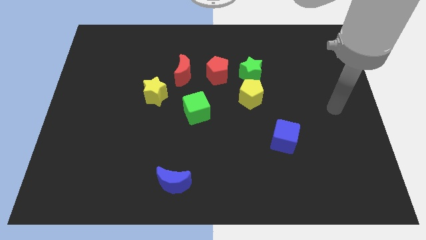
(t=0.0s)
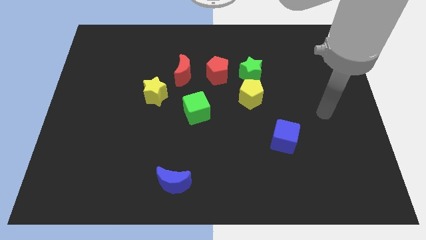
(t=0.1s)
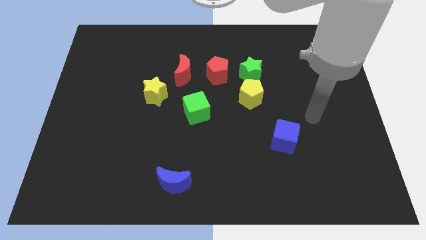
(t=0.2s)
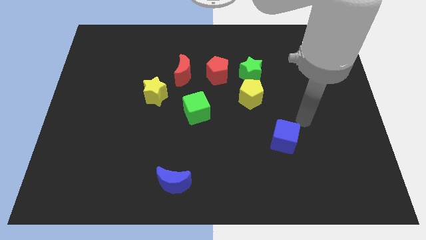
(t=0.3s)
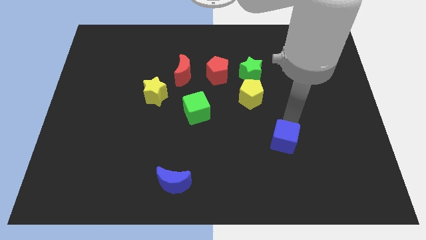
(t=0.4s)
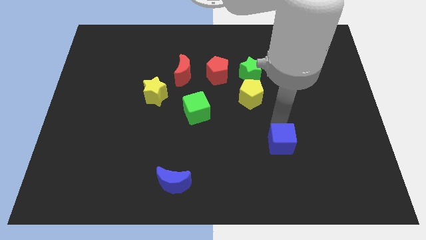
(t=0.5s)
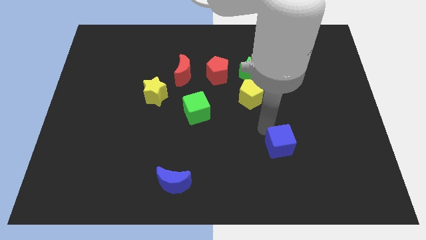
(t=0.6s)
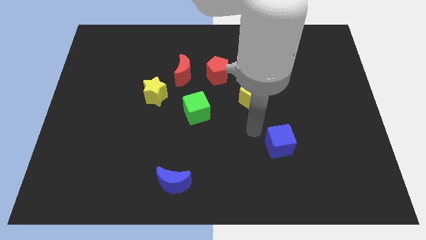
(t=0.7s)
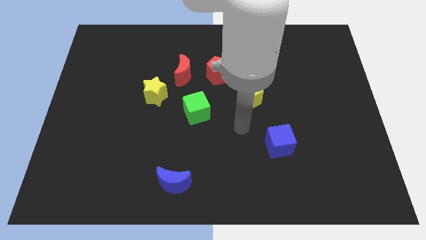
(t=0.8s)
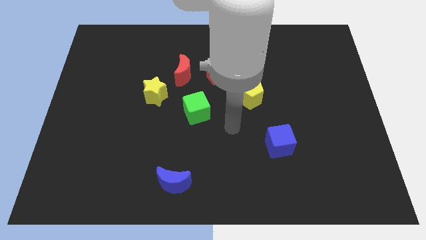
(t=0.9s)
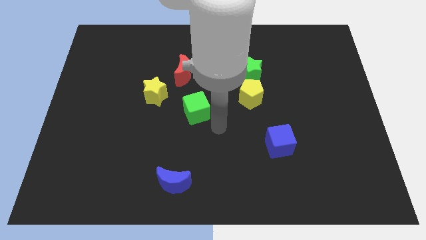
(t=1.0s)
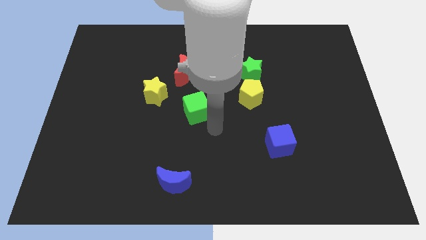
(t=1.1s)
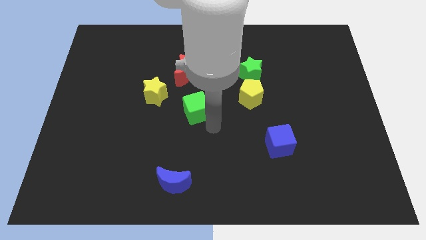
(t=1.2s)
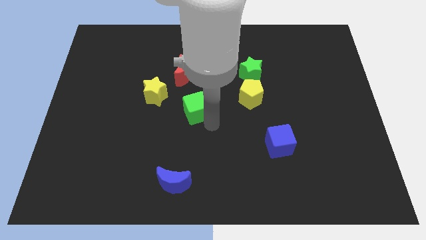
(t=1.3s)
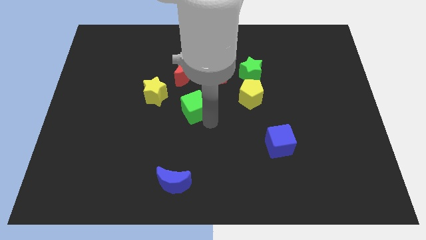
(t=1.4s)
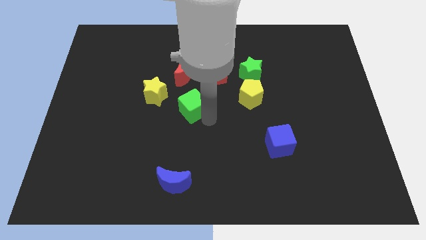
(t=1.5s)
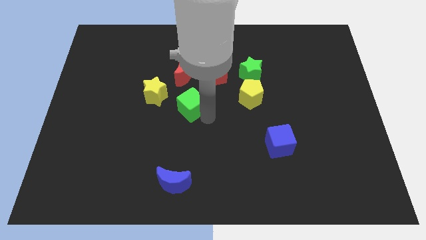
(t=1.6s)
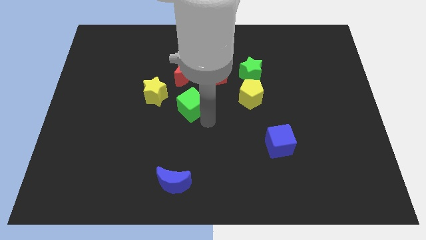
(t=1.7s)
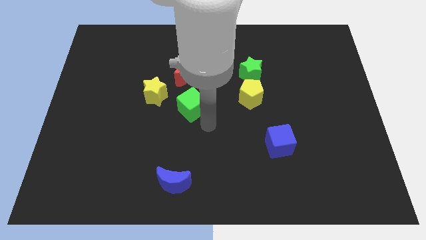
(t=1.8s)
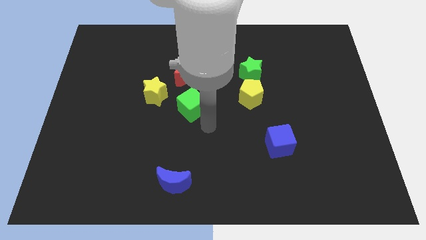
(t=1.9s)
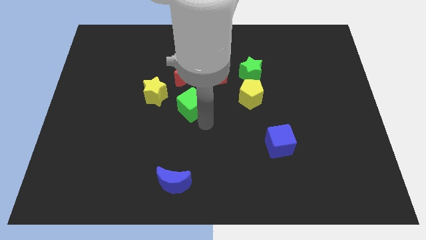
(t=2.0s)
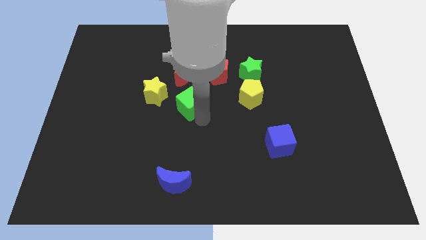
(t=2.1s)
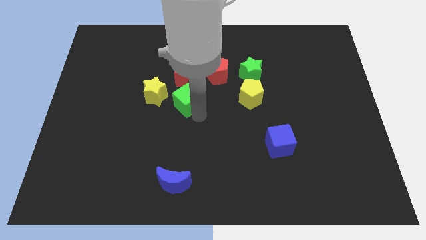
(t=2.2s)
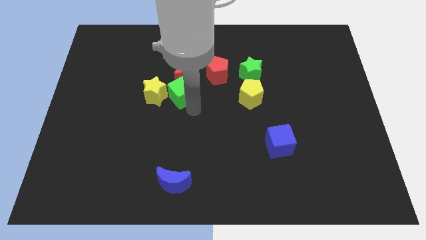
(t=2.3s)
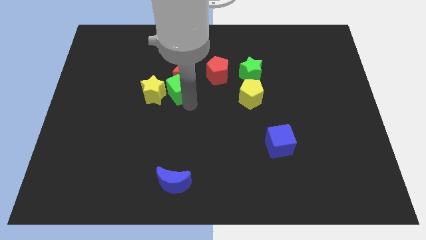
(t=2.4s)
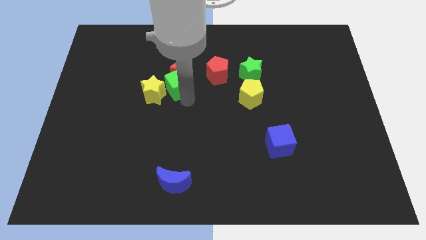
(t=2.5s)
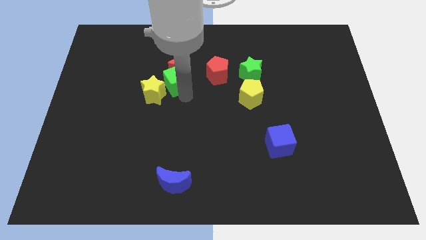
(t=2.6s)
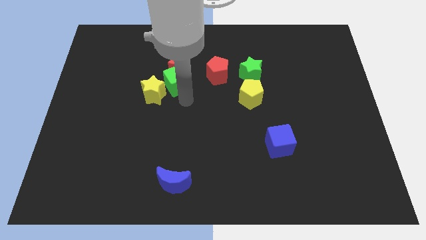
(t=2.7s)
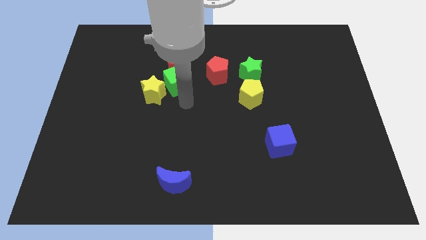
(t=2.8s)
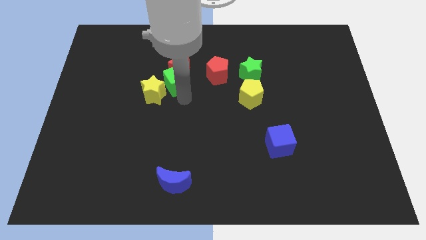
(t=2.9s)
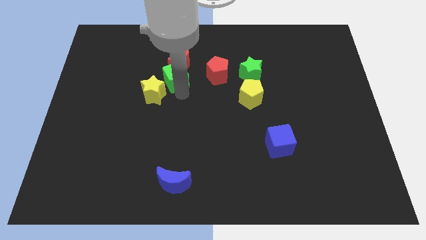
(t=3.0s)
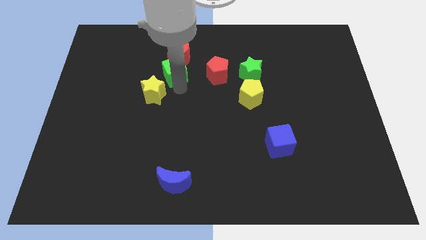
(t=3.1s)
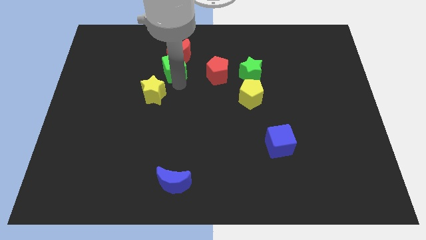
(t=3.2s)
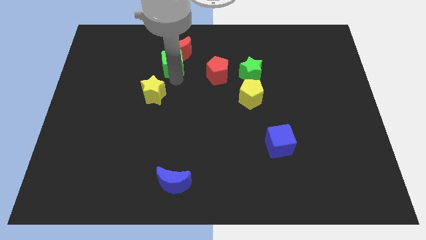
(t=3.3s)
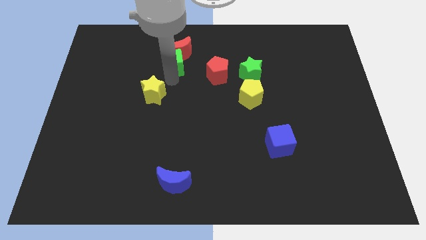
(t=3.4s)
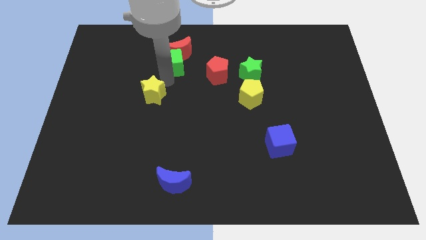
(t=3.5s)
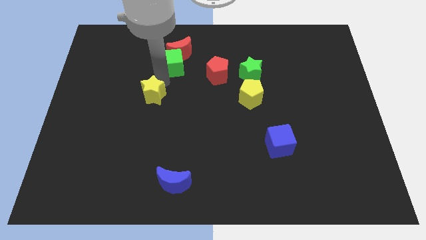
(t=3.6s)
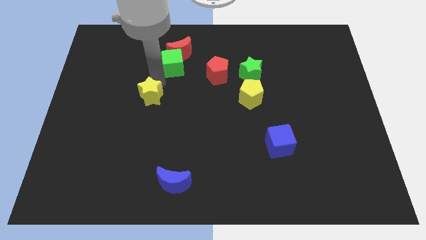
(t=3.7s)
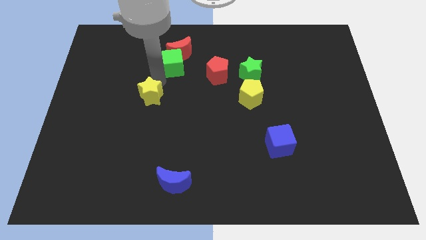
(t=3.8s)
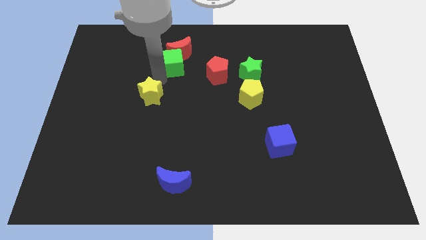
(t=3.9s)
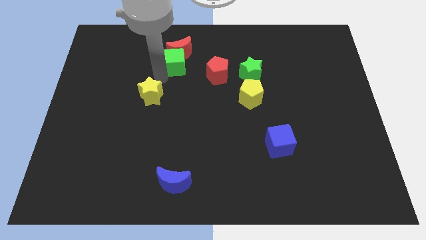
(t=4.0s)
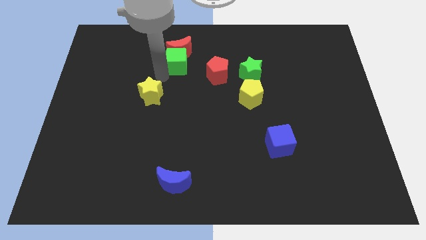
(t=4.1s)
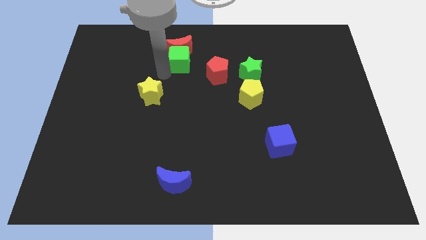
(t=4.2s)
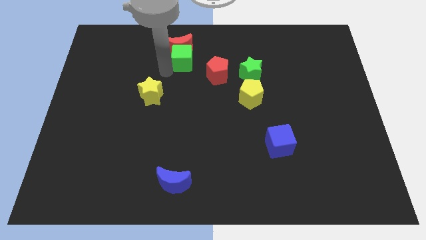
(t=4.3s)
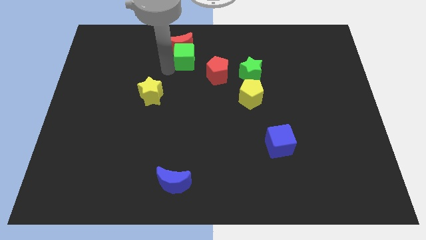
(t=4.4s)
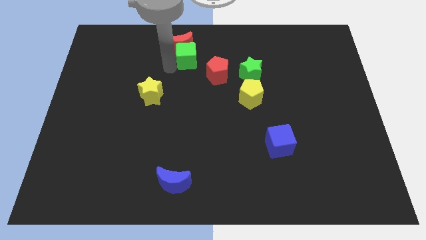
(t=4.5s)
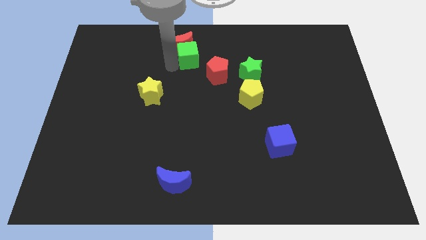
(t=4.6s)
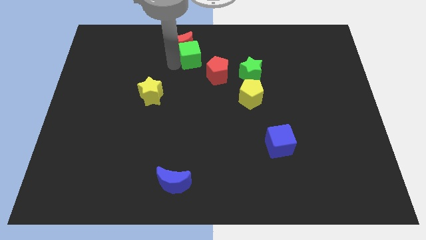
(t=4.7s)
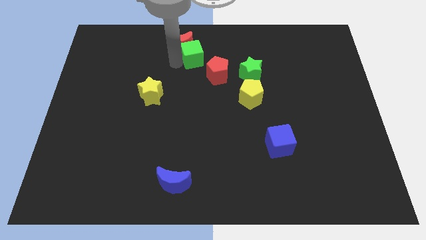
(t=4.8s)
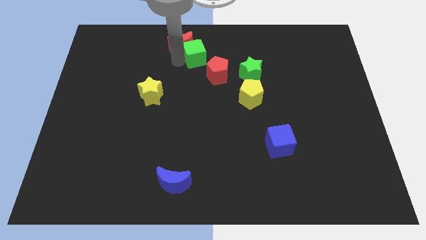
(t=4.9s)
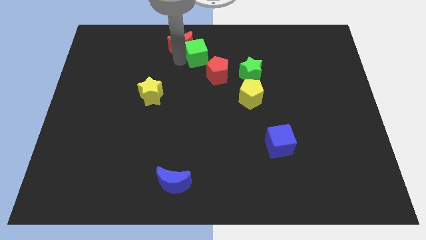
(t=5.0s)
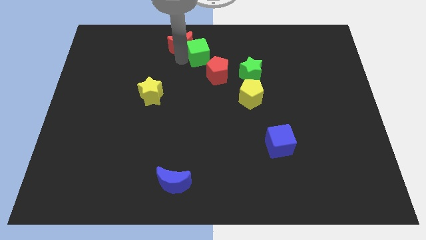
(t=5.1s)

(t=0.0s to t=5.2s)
move the green cube to the top

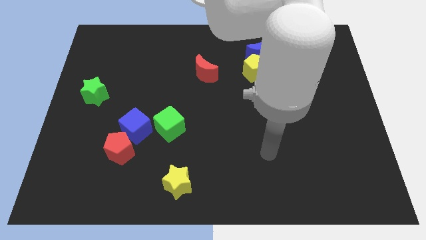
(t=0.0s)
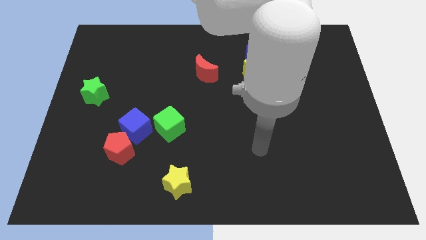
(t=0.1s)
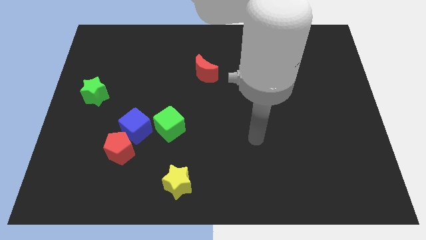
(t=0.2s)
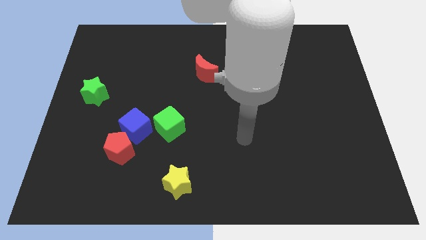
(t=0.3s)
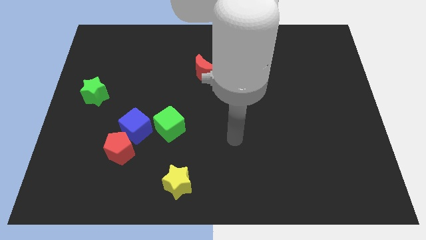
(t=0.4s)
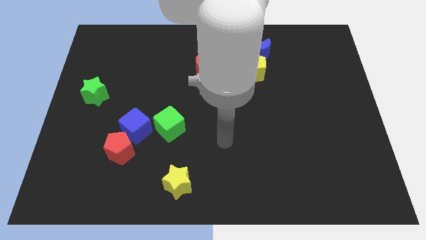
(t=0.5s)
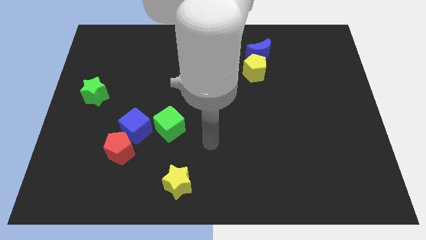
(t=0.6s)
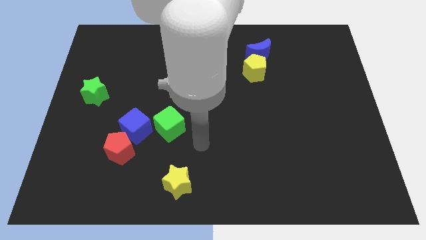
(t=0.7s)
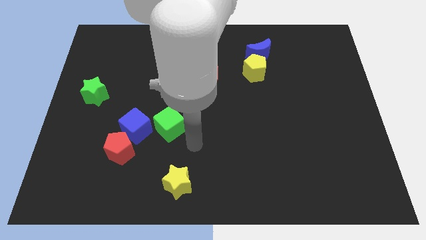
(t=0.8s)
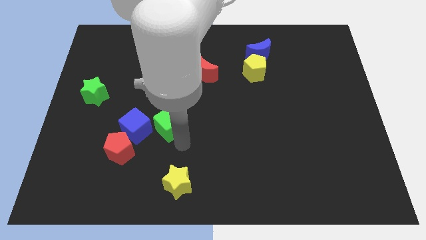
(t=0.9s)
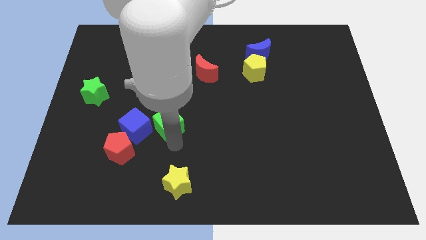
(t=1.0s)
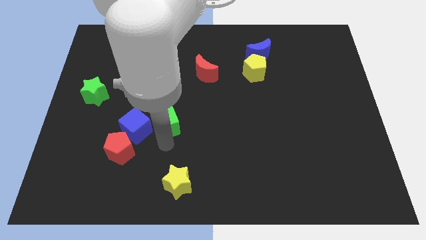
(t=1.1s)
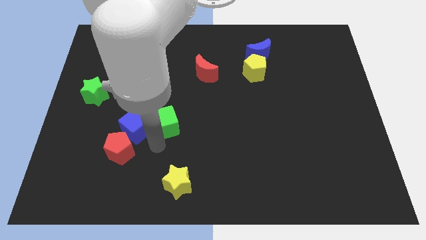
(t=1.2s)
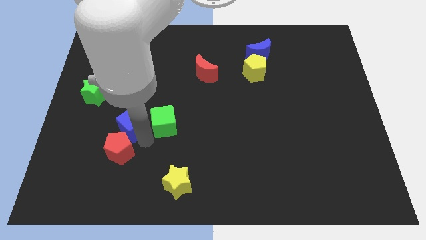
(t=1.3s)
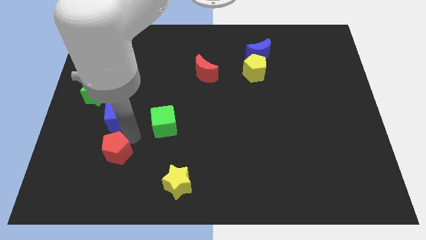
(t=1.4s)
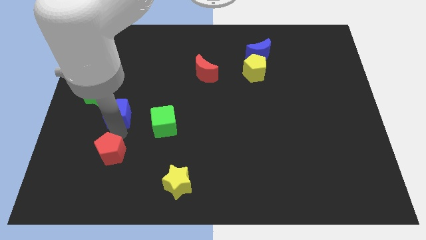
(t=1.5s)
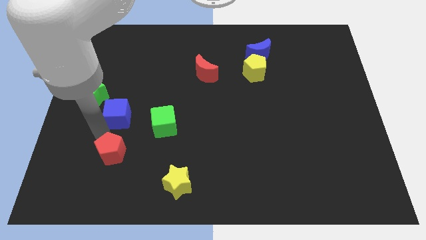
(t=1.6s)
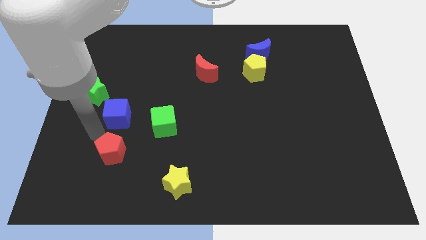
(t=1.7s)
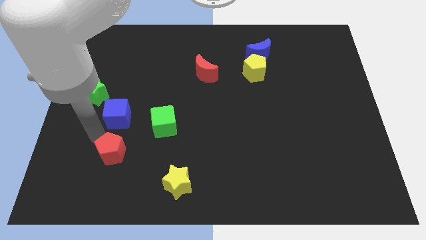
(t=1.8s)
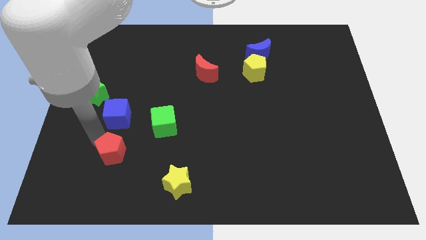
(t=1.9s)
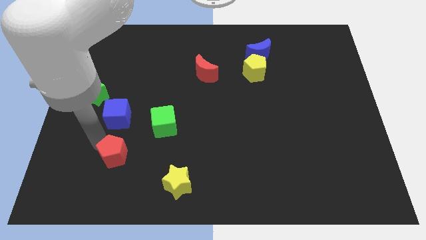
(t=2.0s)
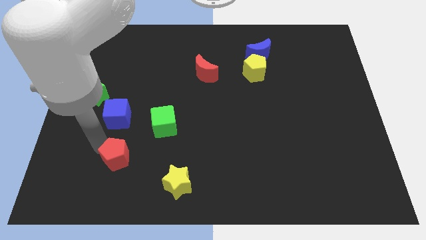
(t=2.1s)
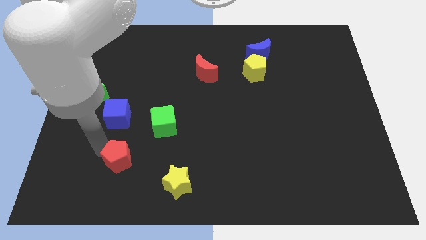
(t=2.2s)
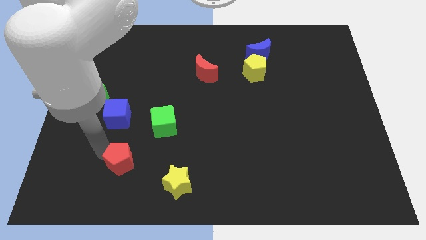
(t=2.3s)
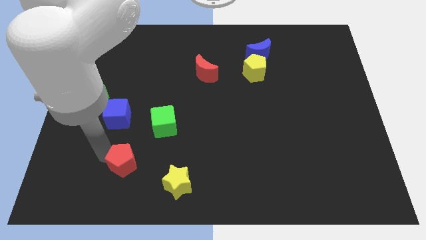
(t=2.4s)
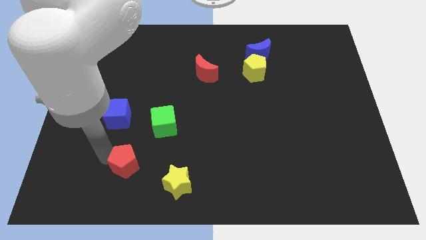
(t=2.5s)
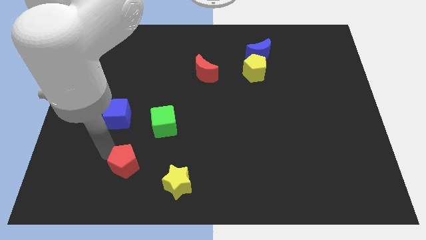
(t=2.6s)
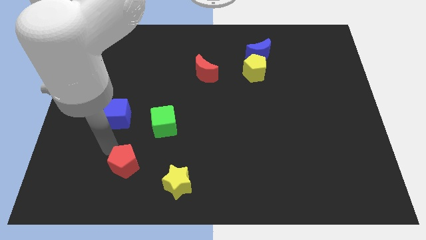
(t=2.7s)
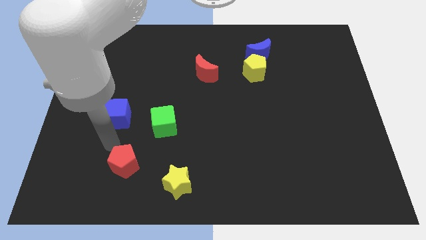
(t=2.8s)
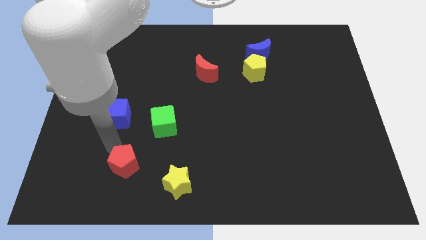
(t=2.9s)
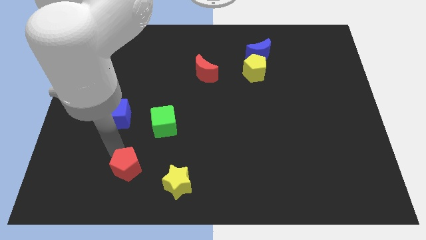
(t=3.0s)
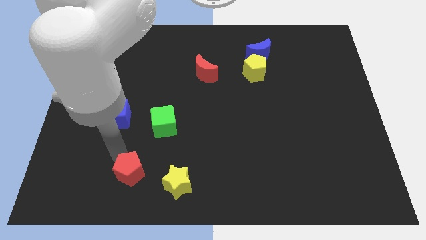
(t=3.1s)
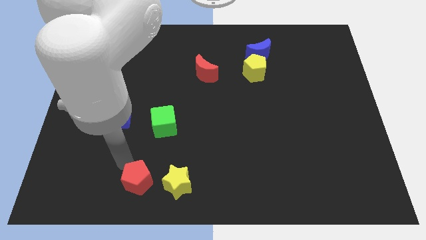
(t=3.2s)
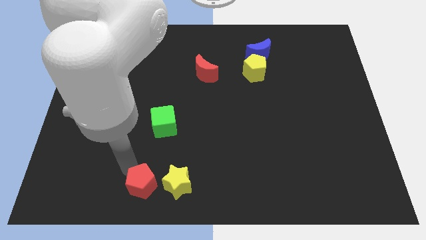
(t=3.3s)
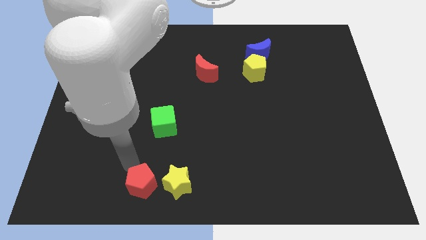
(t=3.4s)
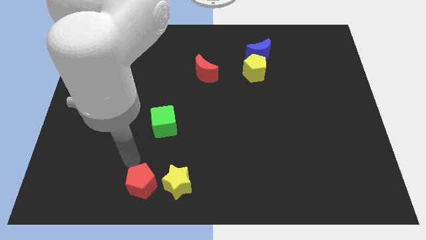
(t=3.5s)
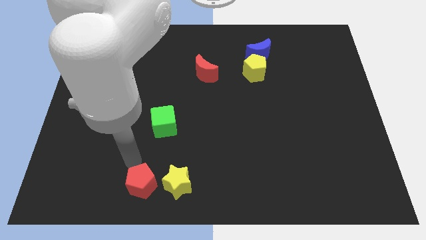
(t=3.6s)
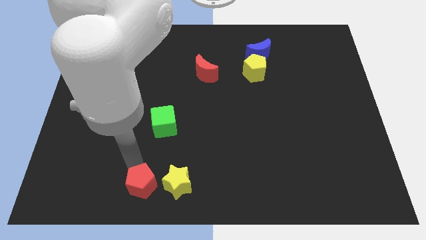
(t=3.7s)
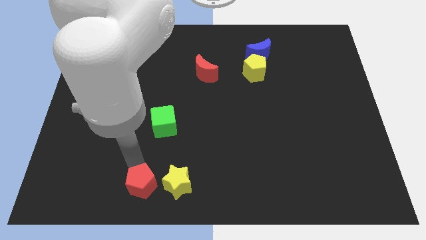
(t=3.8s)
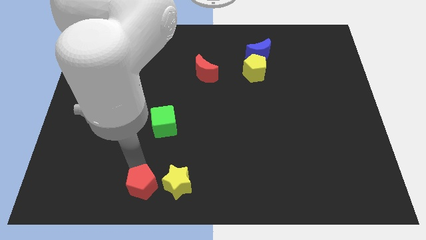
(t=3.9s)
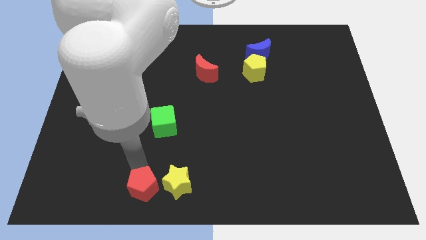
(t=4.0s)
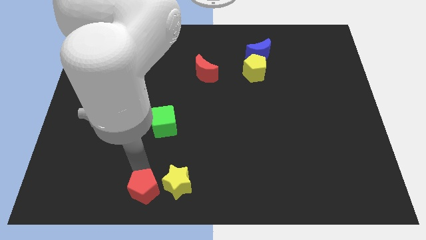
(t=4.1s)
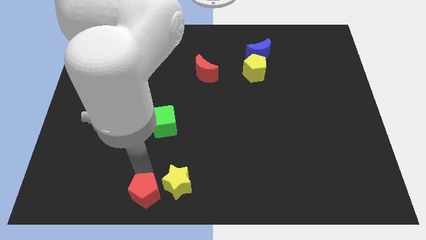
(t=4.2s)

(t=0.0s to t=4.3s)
push the red pentagon to the bottom
